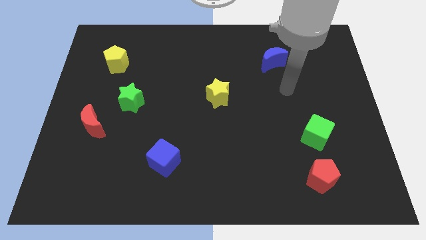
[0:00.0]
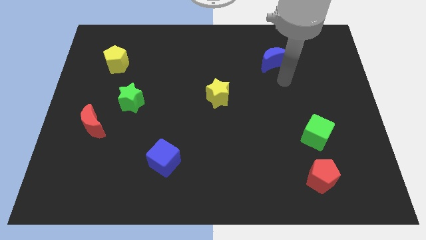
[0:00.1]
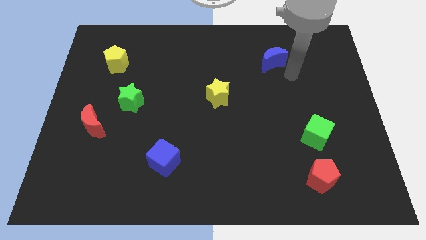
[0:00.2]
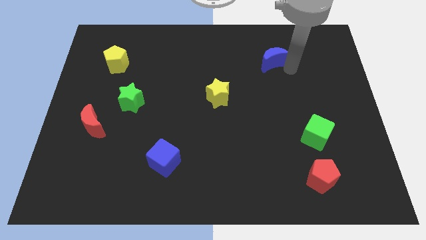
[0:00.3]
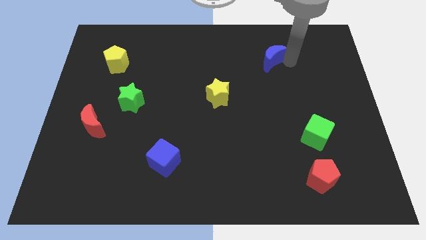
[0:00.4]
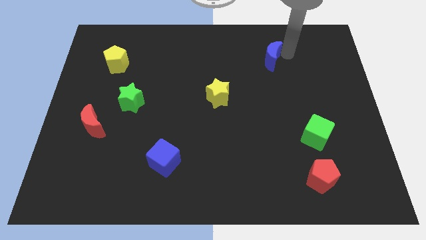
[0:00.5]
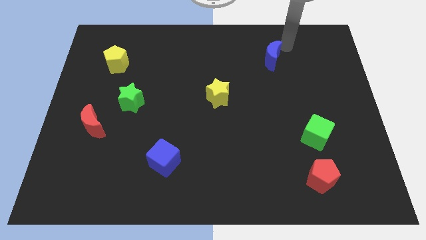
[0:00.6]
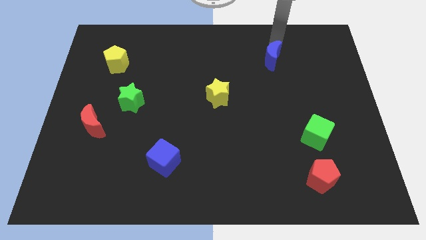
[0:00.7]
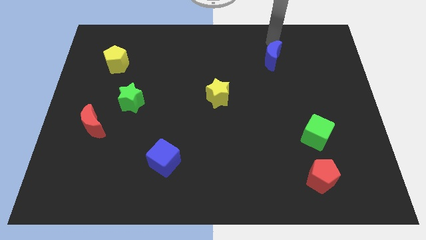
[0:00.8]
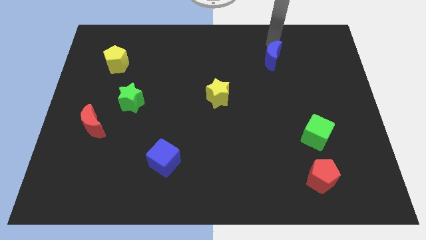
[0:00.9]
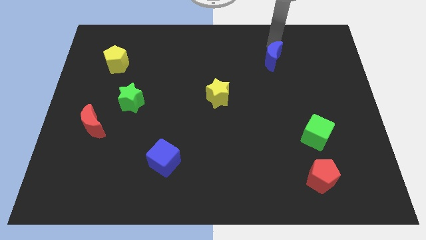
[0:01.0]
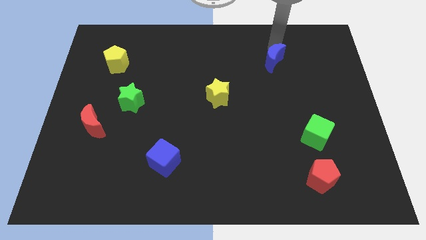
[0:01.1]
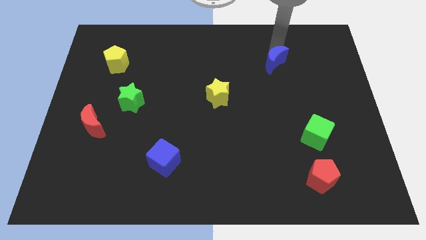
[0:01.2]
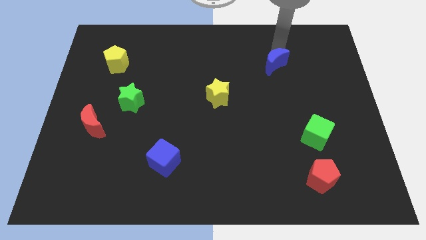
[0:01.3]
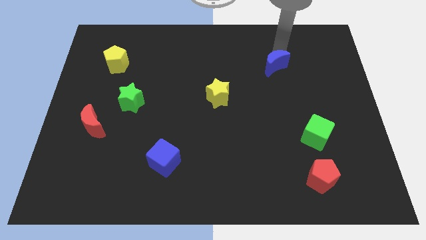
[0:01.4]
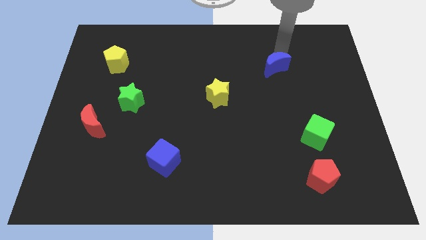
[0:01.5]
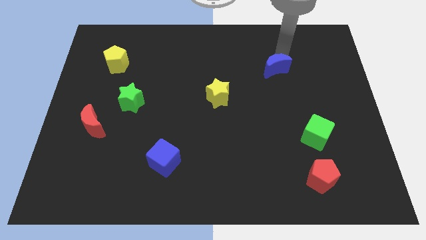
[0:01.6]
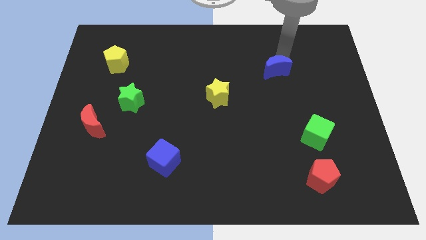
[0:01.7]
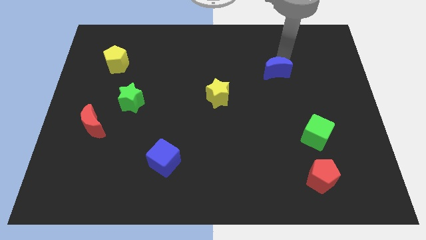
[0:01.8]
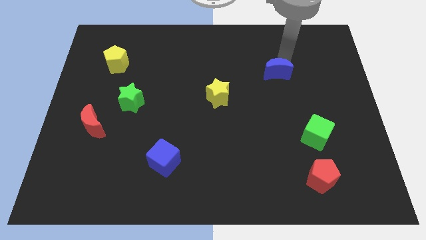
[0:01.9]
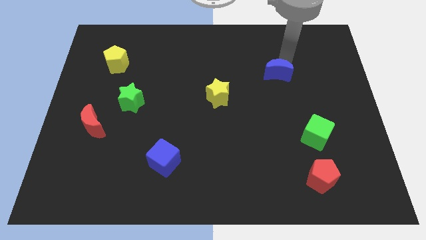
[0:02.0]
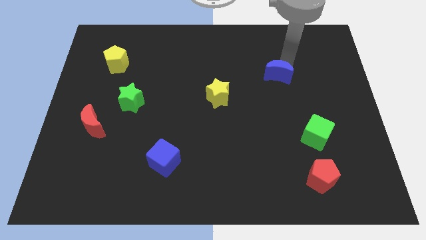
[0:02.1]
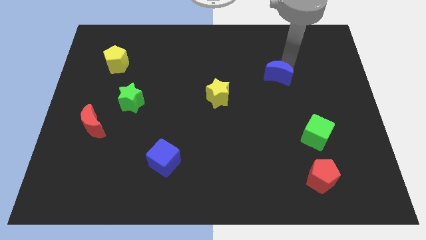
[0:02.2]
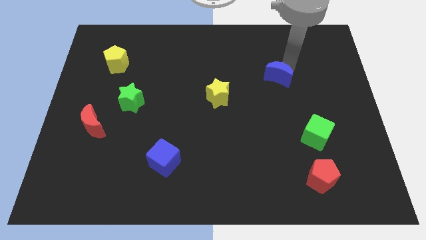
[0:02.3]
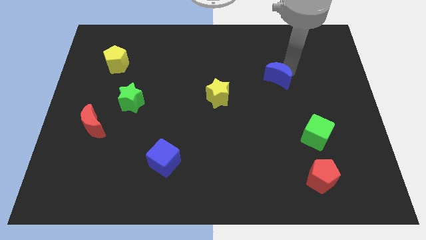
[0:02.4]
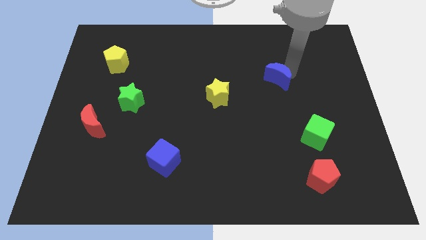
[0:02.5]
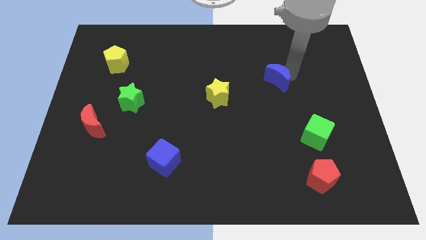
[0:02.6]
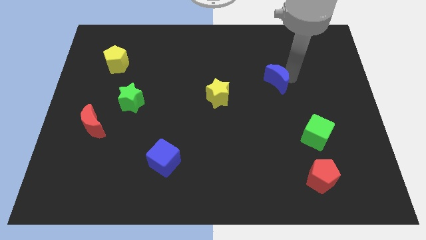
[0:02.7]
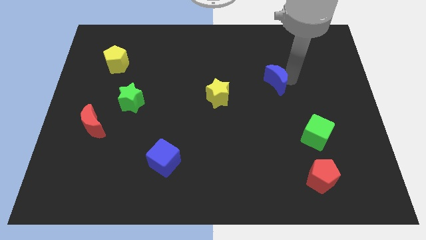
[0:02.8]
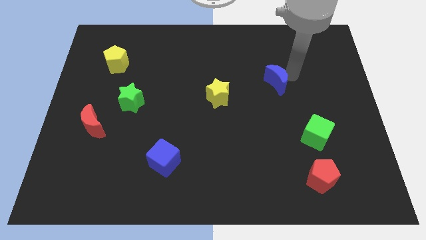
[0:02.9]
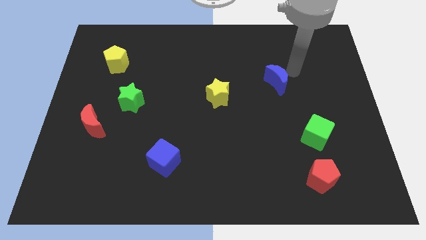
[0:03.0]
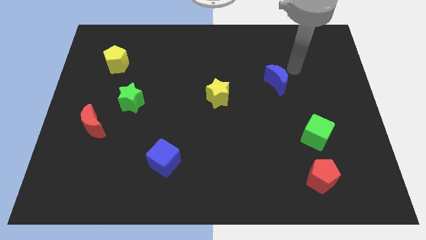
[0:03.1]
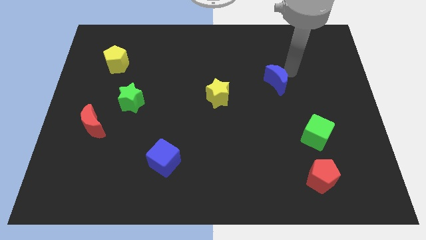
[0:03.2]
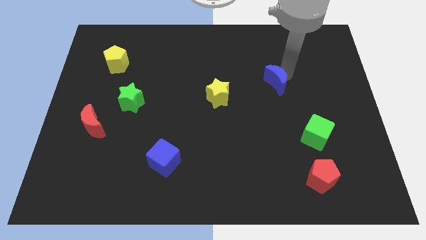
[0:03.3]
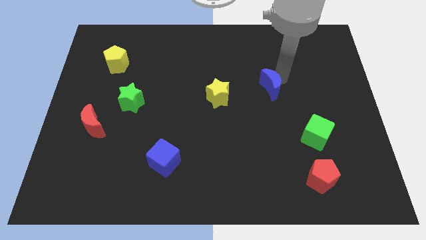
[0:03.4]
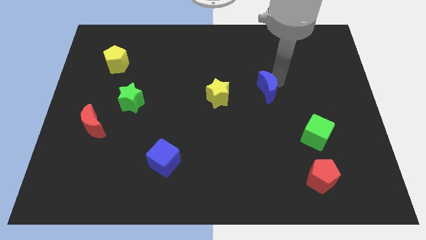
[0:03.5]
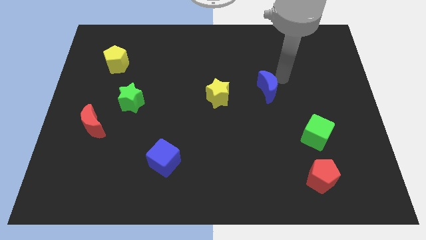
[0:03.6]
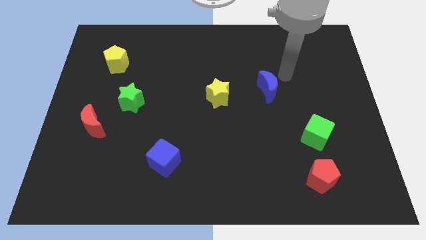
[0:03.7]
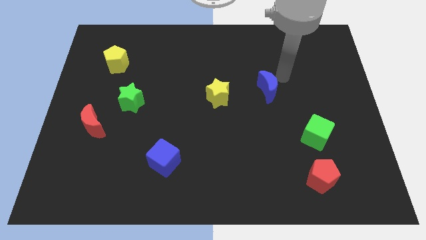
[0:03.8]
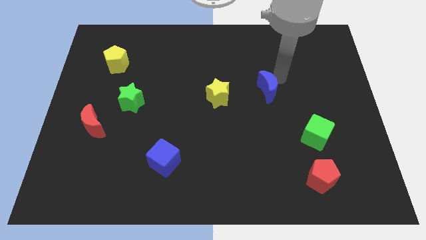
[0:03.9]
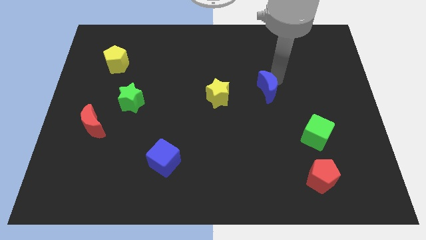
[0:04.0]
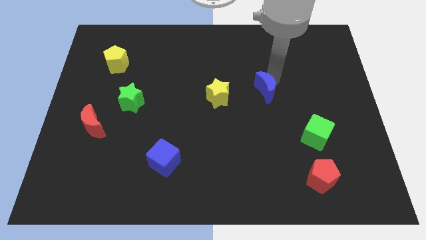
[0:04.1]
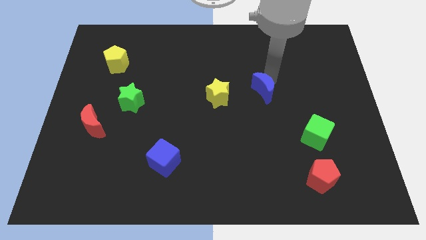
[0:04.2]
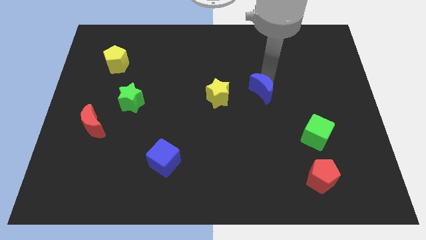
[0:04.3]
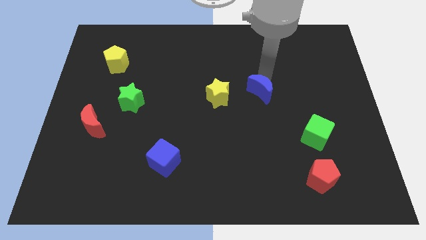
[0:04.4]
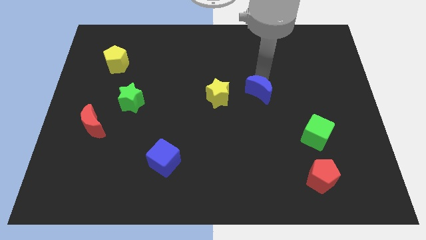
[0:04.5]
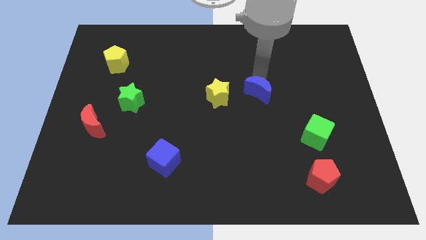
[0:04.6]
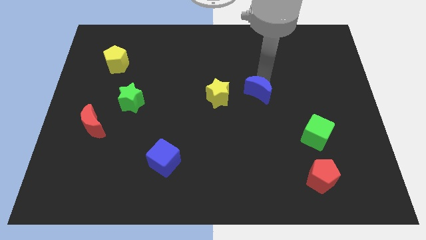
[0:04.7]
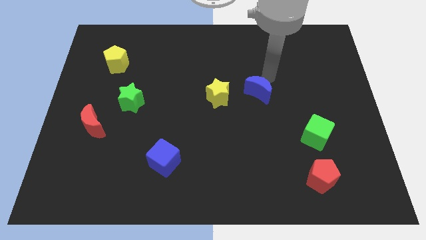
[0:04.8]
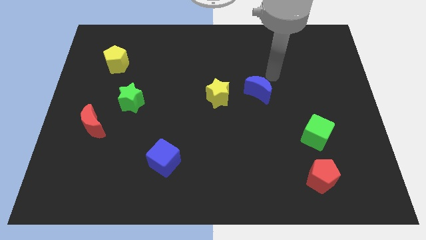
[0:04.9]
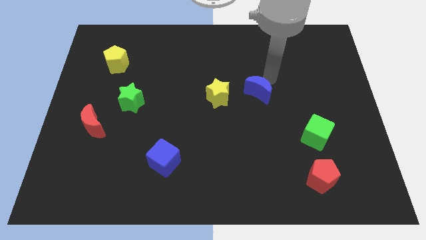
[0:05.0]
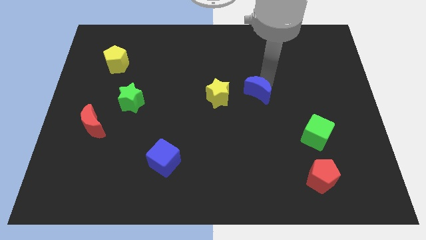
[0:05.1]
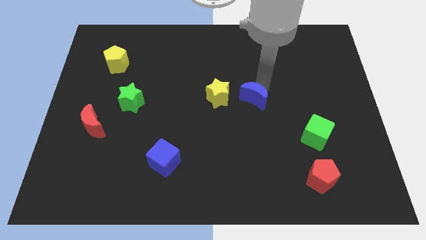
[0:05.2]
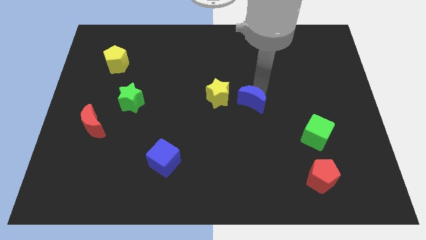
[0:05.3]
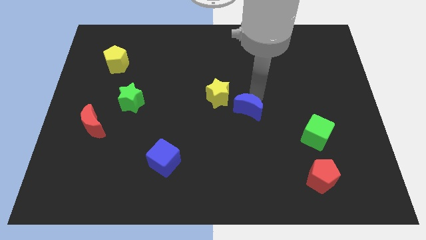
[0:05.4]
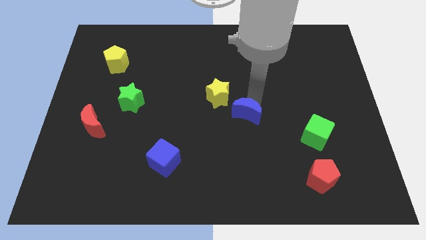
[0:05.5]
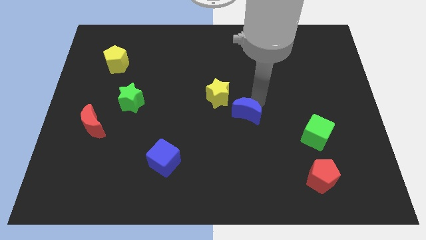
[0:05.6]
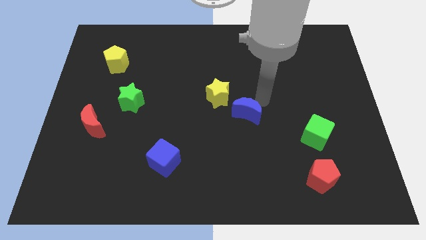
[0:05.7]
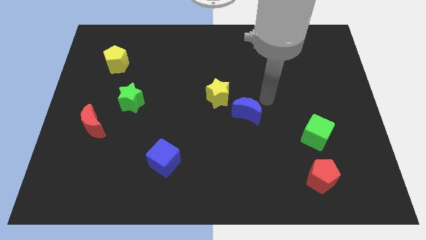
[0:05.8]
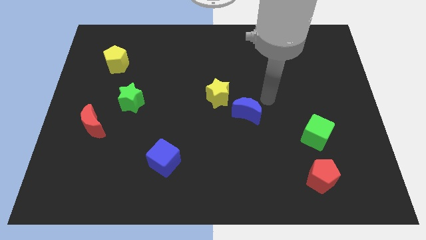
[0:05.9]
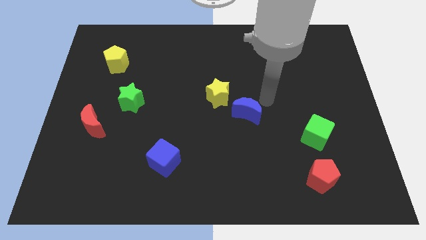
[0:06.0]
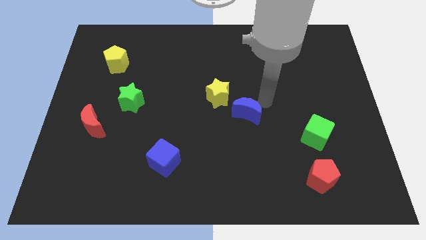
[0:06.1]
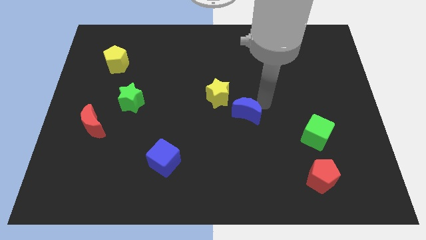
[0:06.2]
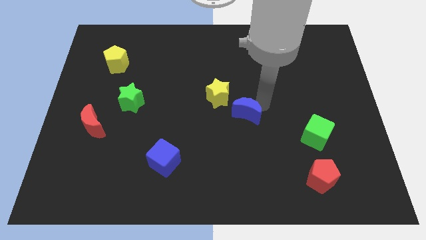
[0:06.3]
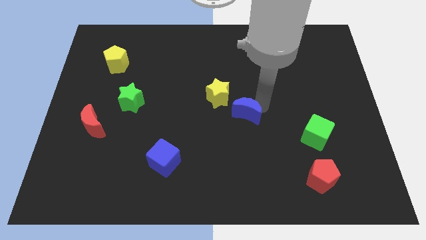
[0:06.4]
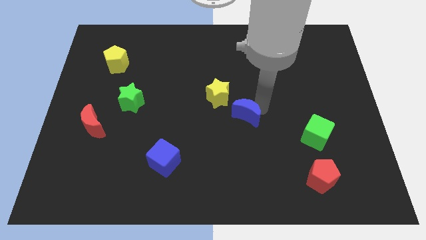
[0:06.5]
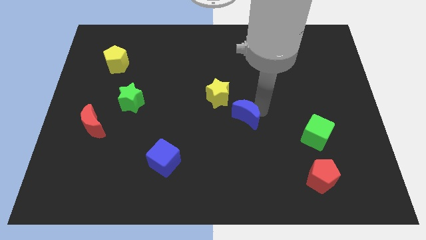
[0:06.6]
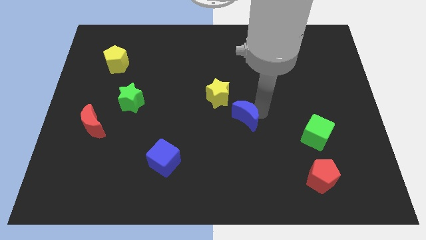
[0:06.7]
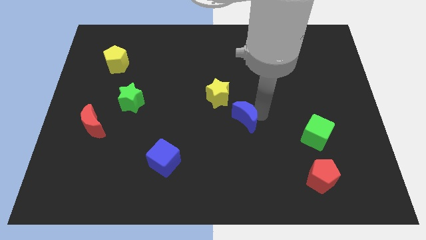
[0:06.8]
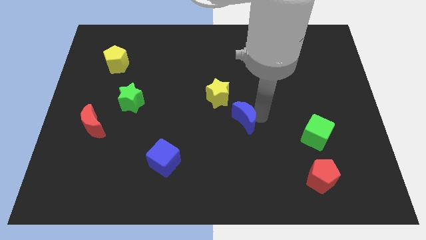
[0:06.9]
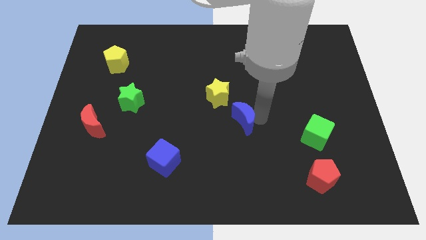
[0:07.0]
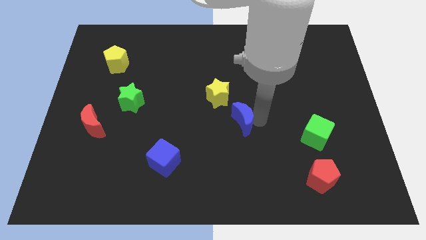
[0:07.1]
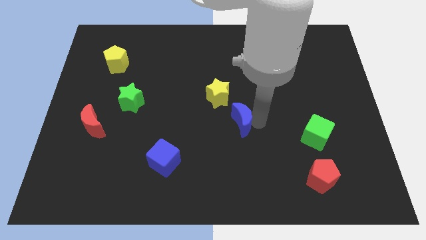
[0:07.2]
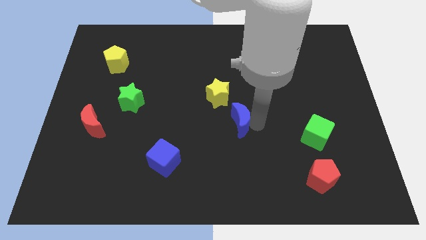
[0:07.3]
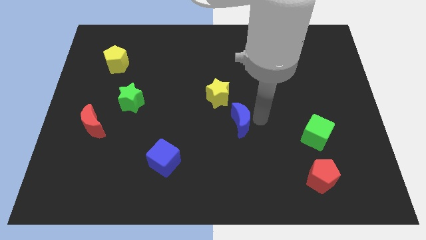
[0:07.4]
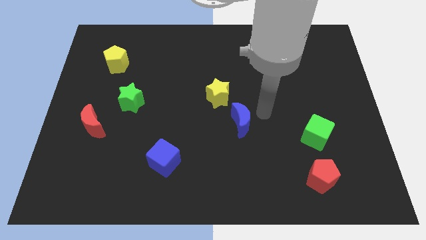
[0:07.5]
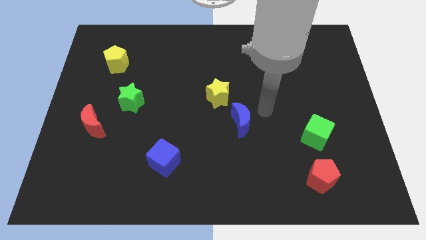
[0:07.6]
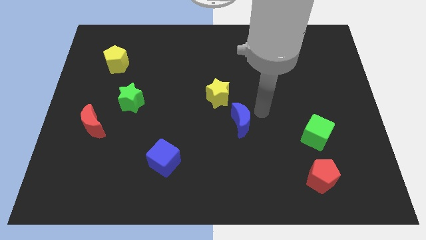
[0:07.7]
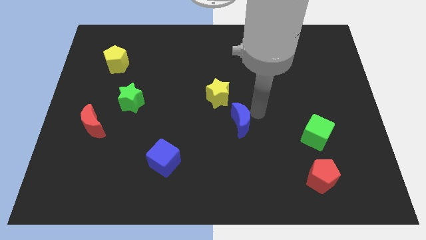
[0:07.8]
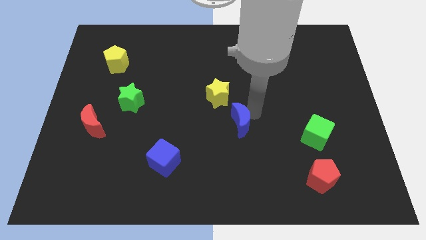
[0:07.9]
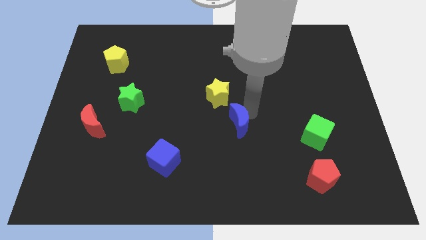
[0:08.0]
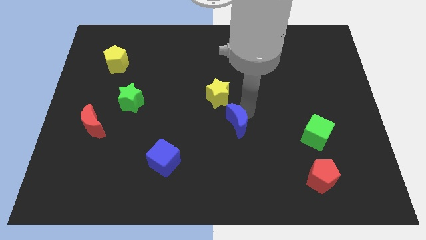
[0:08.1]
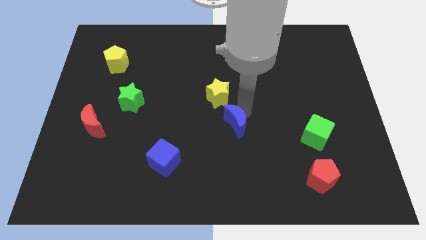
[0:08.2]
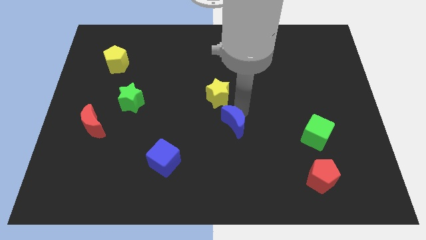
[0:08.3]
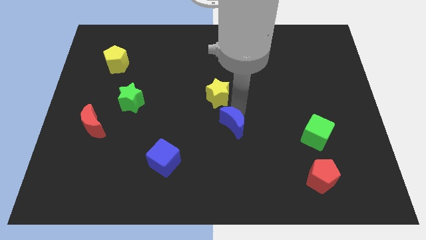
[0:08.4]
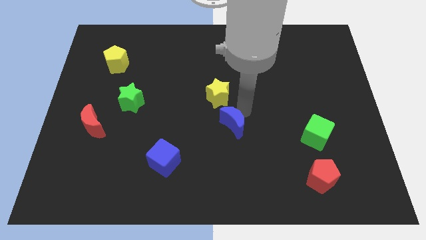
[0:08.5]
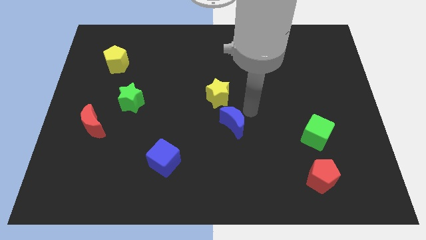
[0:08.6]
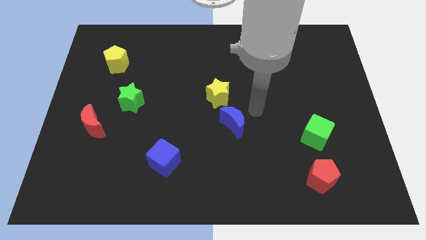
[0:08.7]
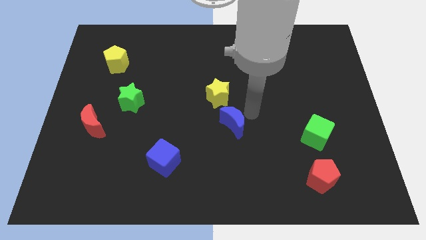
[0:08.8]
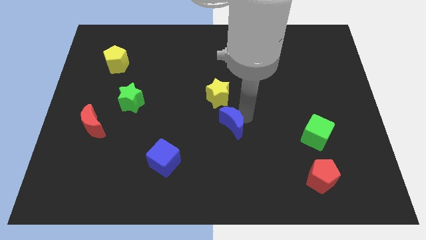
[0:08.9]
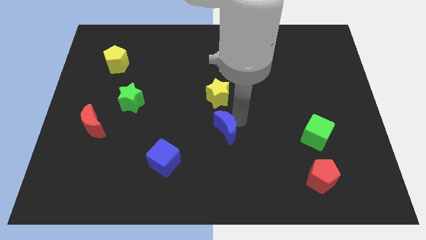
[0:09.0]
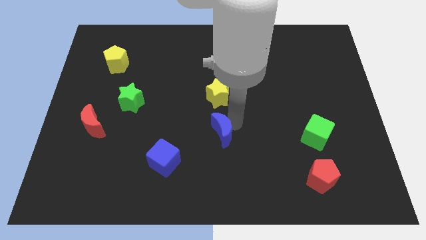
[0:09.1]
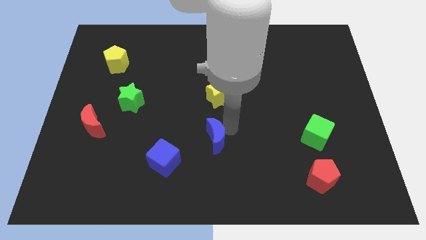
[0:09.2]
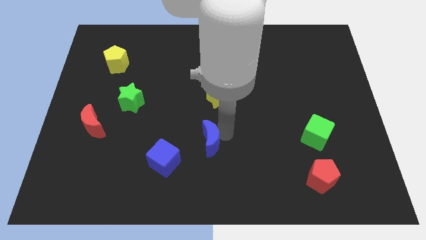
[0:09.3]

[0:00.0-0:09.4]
slide the blue moon to the top right side of the blue cube
